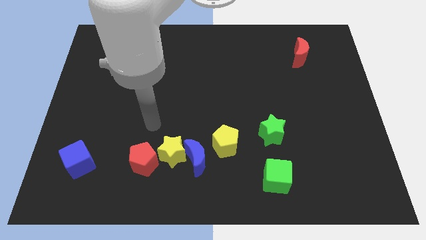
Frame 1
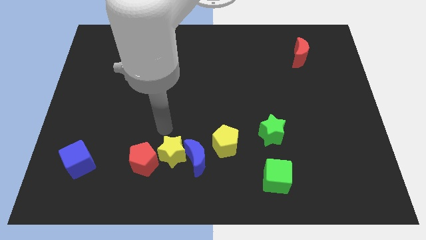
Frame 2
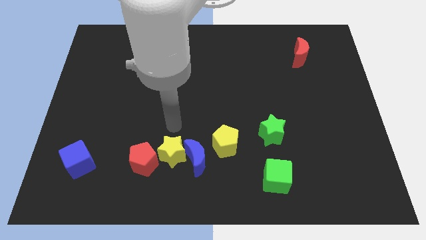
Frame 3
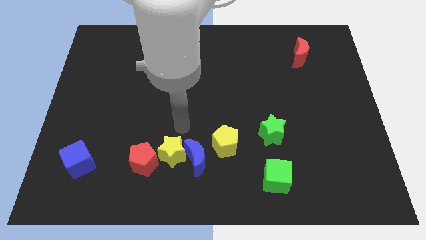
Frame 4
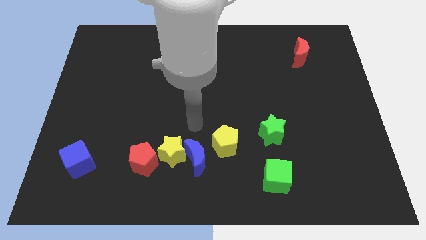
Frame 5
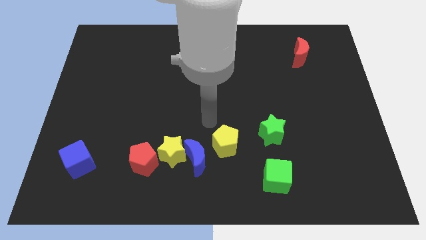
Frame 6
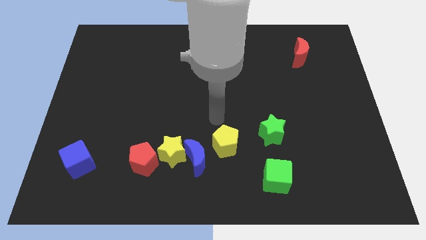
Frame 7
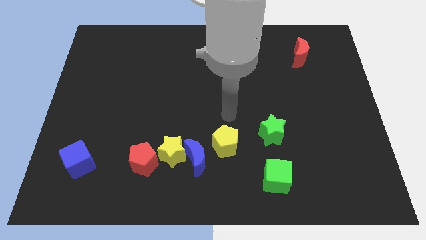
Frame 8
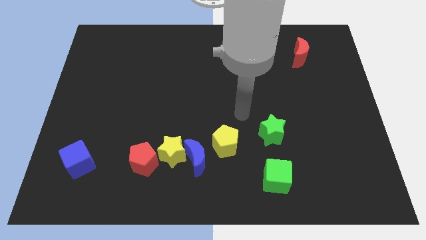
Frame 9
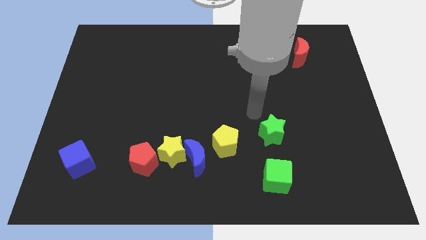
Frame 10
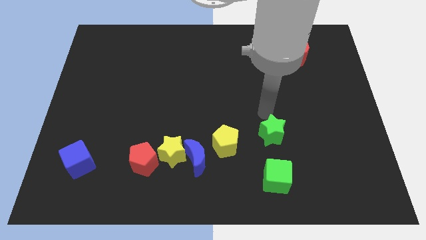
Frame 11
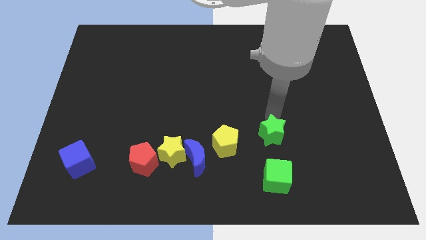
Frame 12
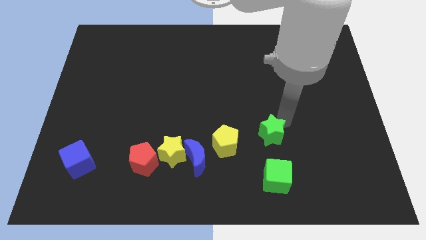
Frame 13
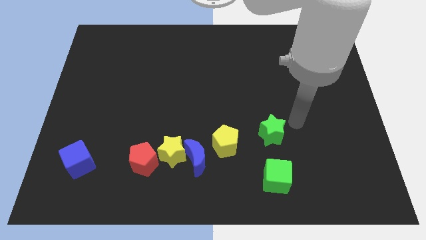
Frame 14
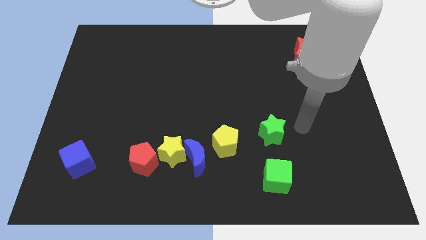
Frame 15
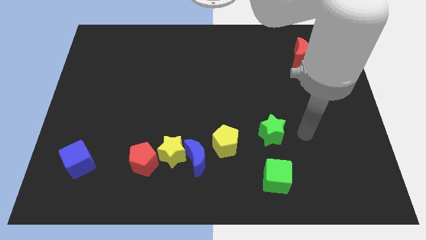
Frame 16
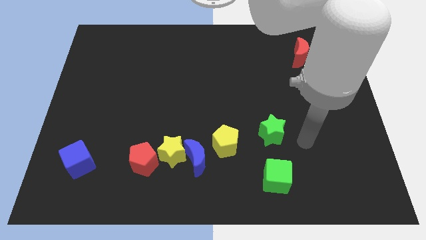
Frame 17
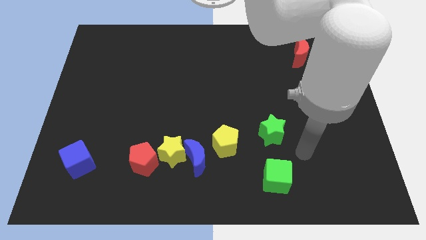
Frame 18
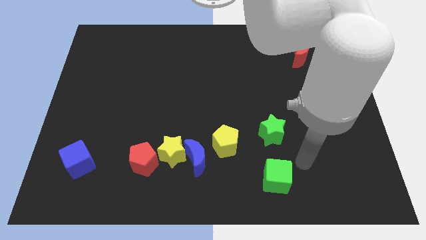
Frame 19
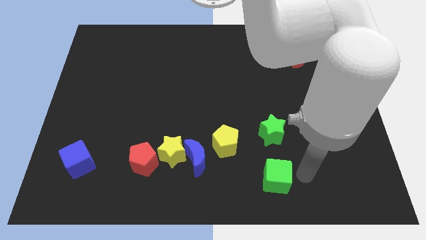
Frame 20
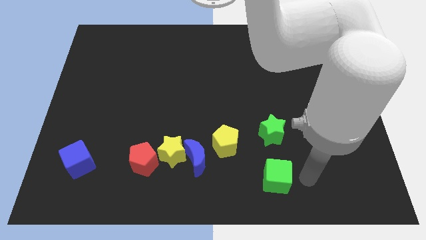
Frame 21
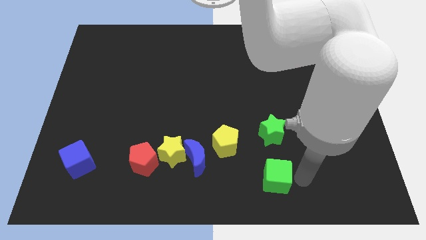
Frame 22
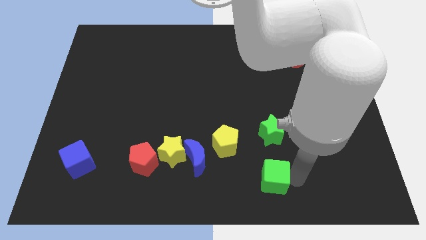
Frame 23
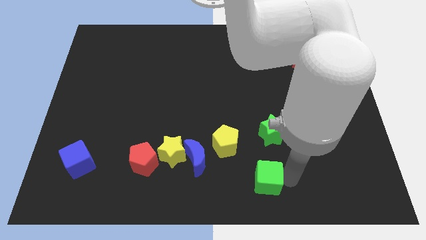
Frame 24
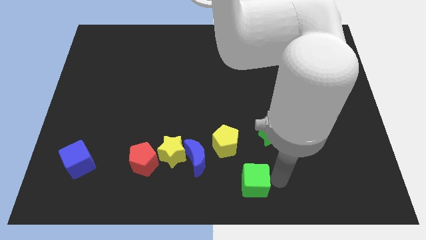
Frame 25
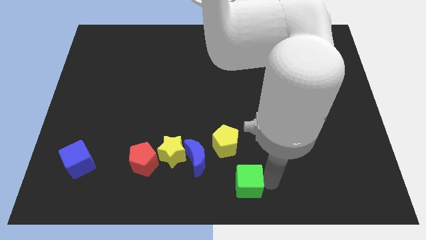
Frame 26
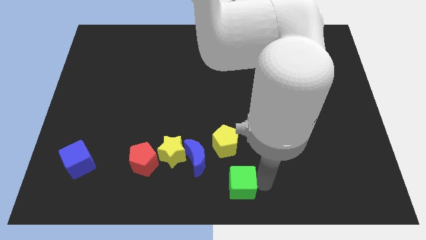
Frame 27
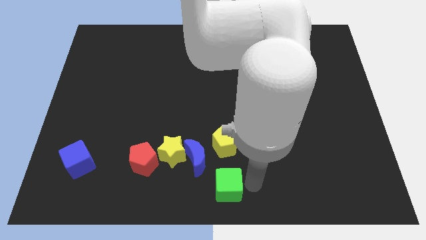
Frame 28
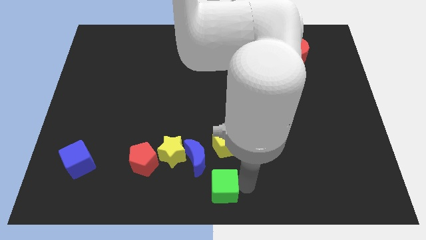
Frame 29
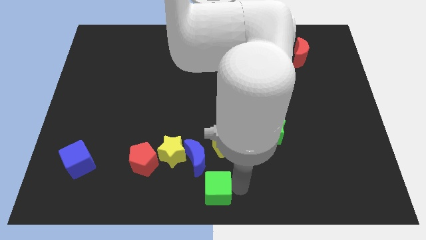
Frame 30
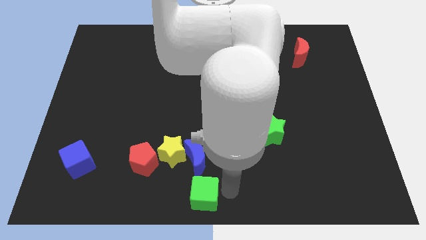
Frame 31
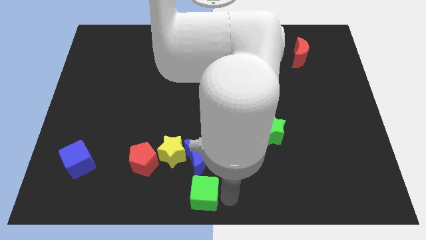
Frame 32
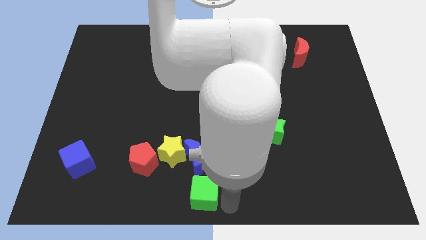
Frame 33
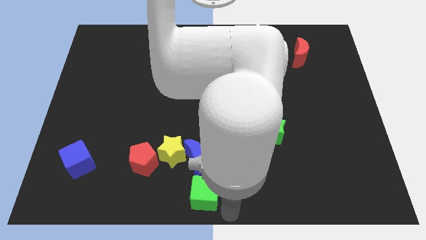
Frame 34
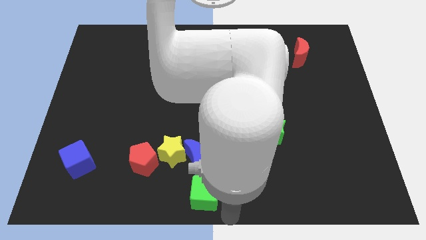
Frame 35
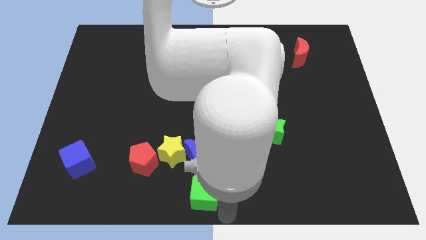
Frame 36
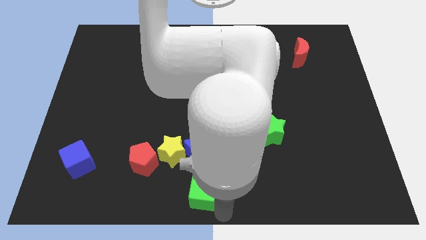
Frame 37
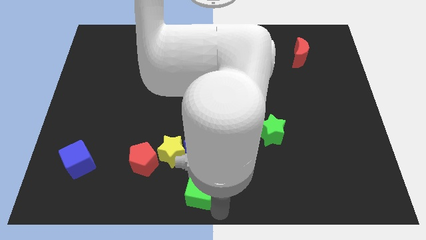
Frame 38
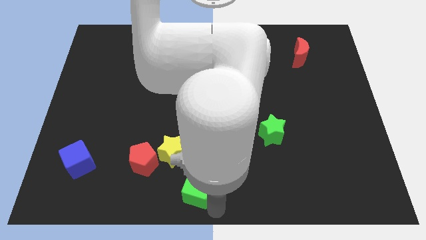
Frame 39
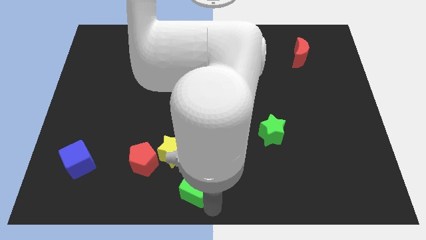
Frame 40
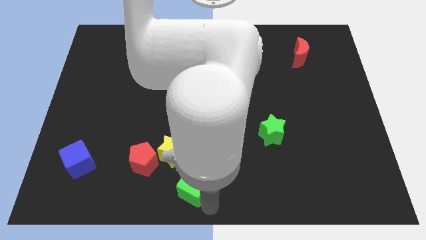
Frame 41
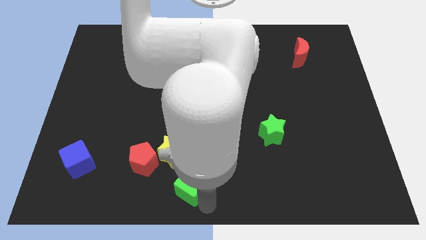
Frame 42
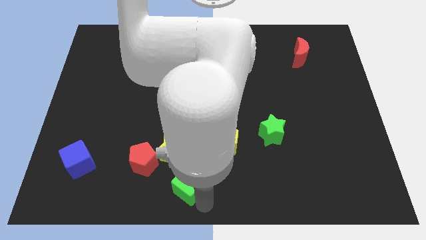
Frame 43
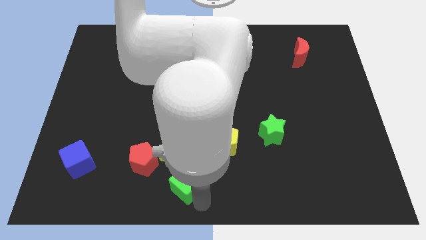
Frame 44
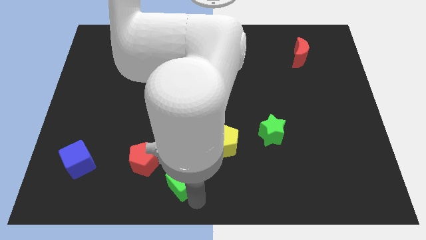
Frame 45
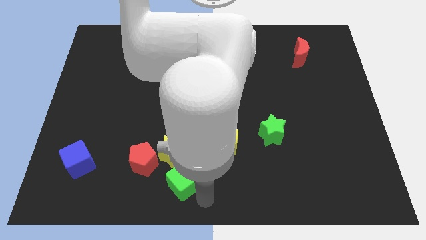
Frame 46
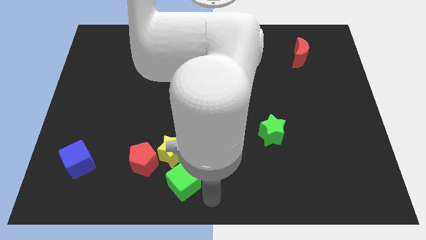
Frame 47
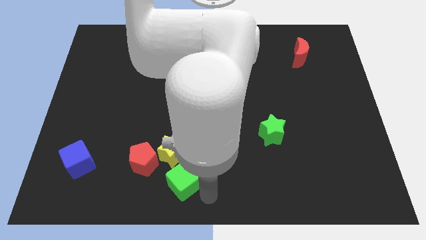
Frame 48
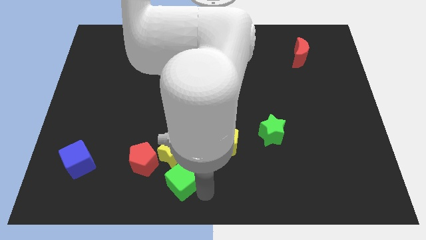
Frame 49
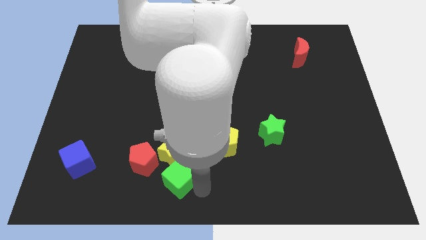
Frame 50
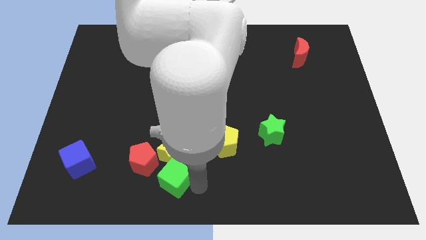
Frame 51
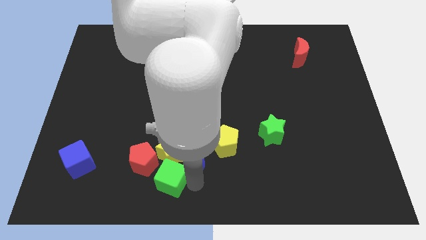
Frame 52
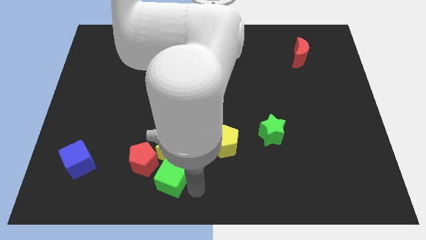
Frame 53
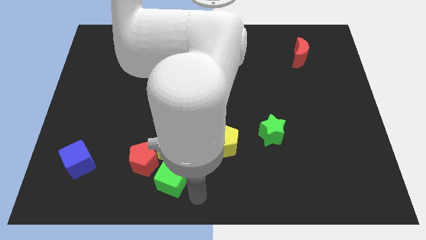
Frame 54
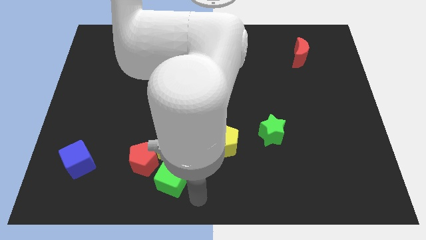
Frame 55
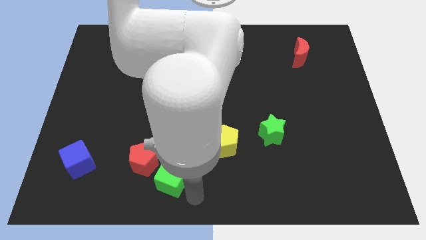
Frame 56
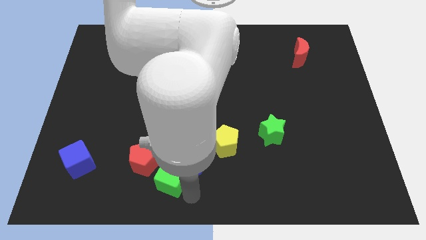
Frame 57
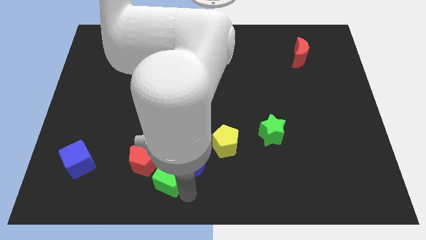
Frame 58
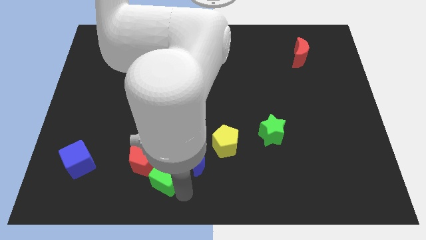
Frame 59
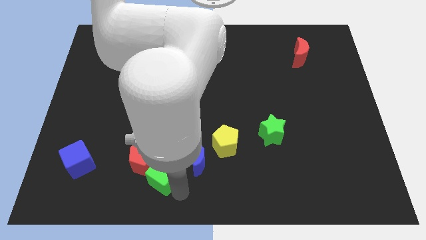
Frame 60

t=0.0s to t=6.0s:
slide the green cube next to the red pentagon

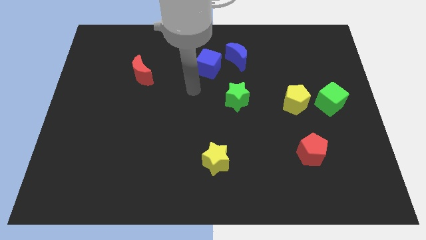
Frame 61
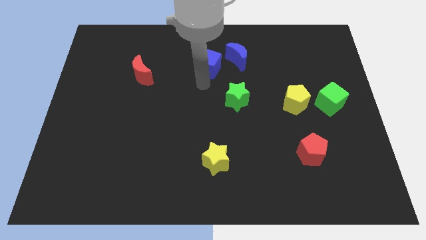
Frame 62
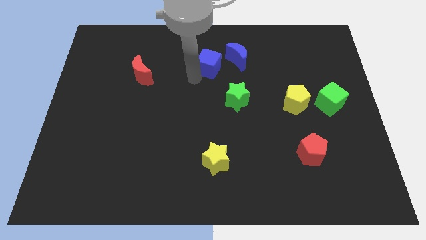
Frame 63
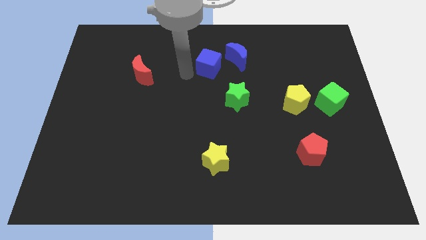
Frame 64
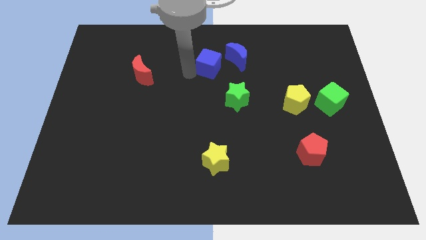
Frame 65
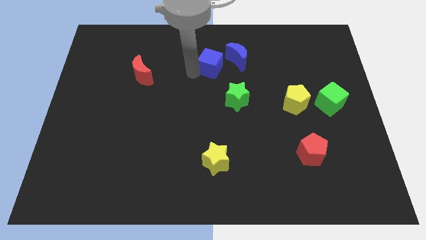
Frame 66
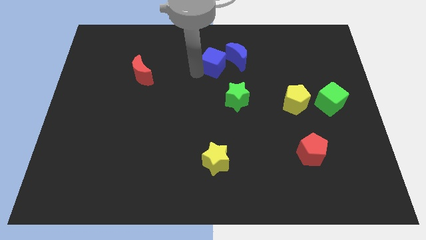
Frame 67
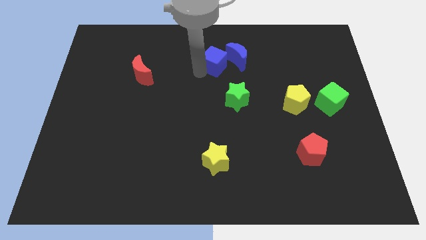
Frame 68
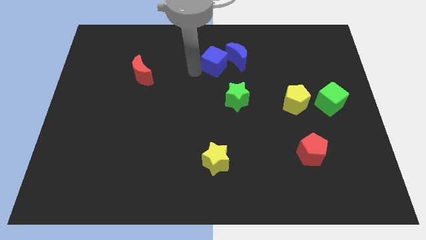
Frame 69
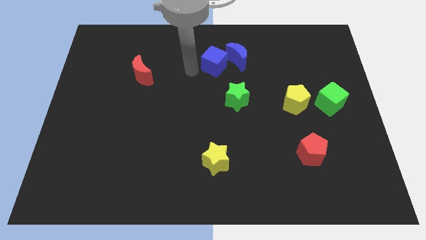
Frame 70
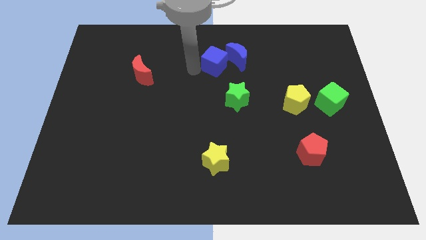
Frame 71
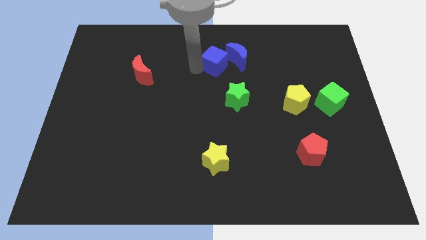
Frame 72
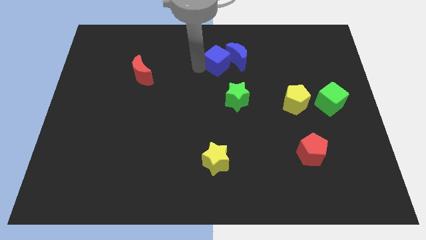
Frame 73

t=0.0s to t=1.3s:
slide the blue cube close to the blue moon
